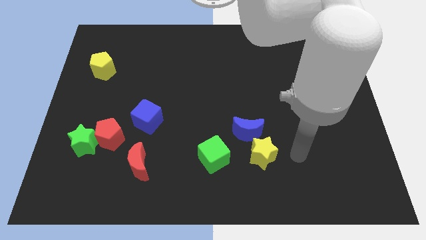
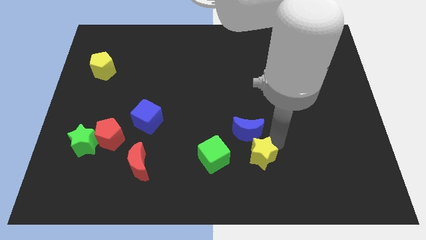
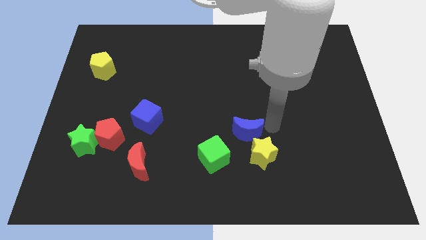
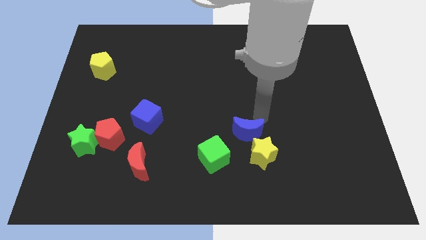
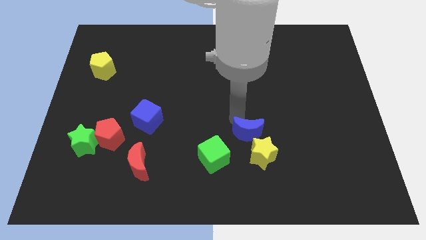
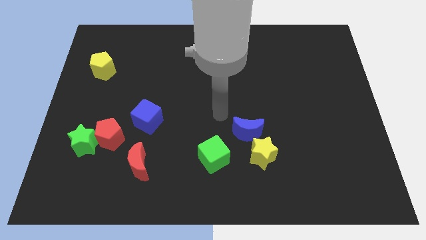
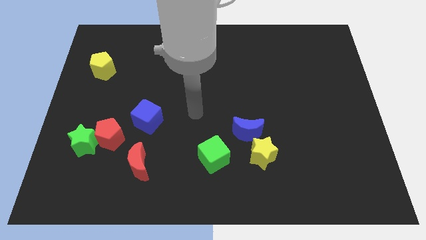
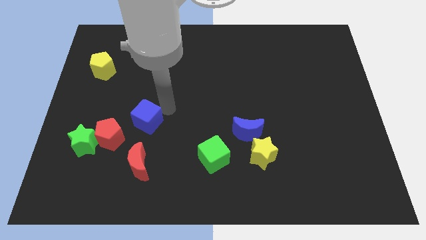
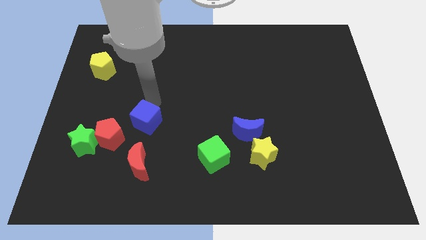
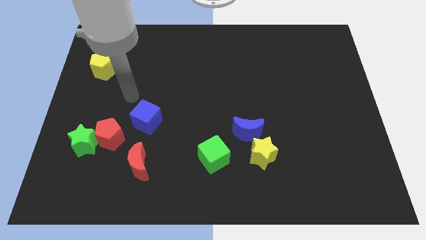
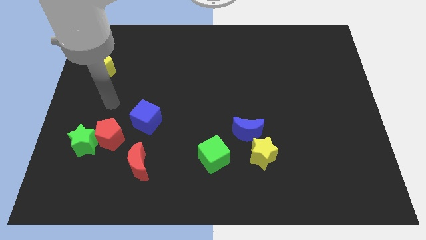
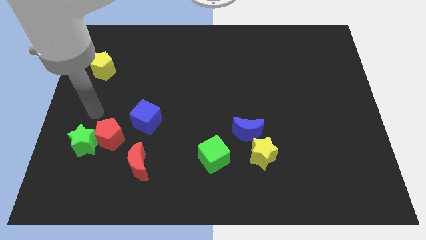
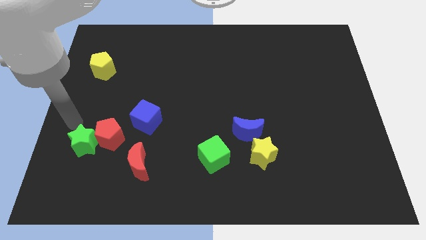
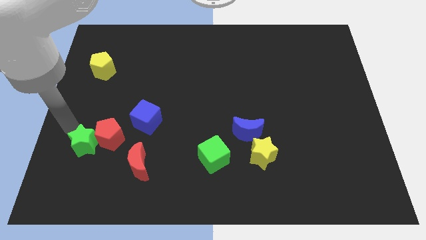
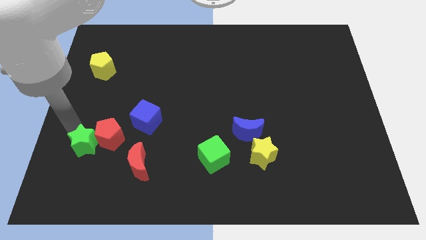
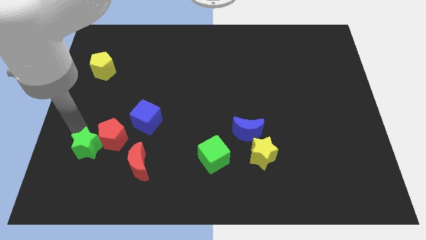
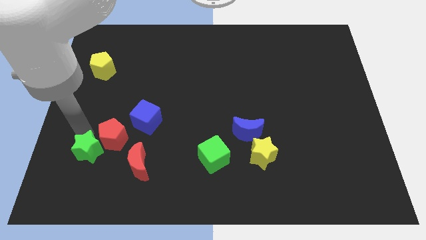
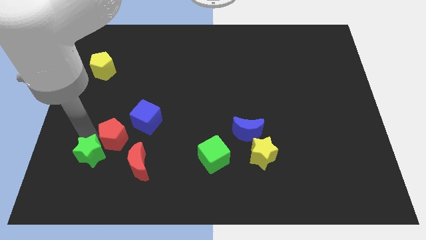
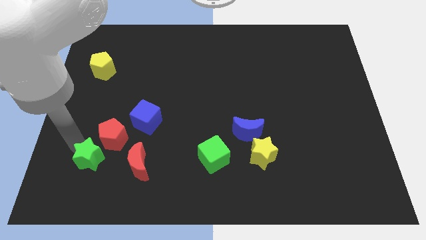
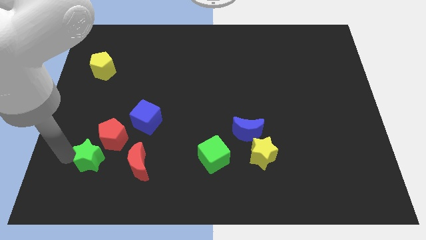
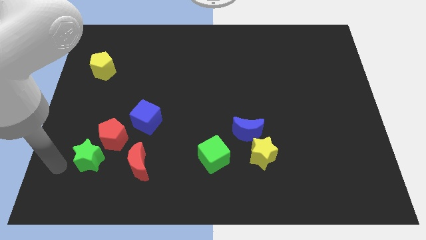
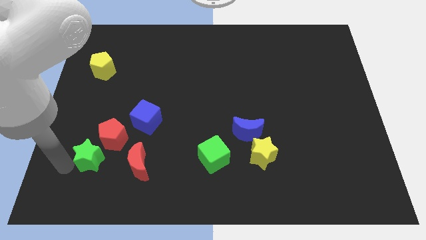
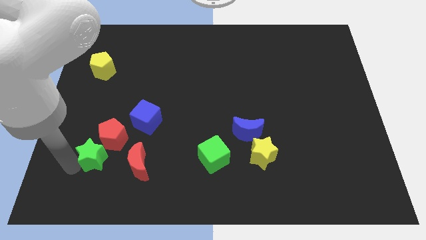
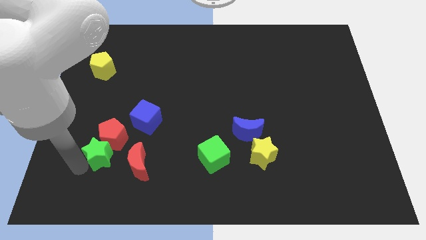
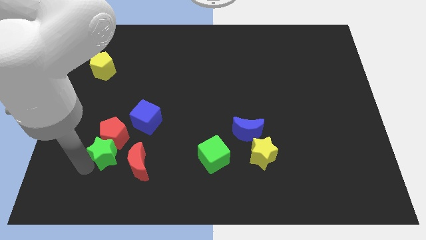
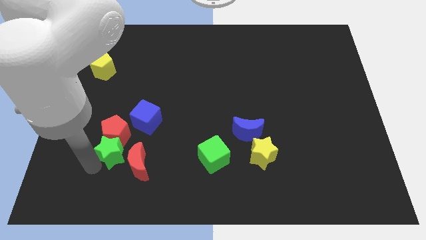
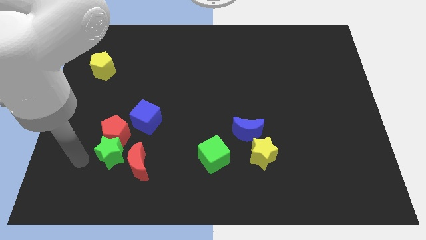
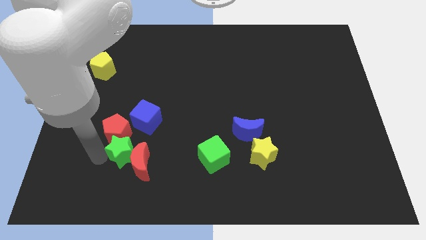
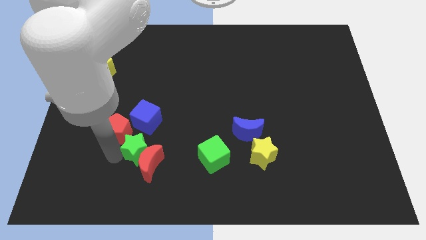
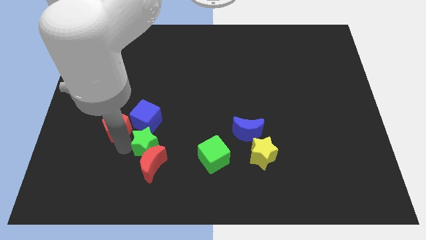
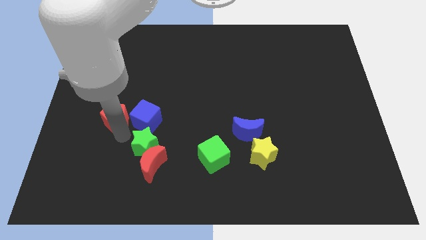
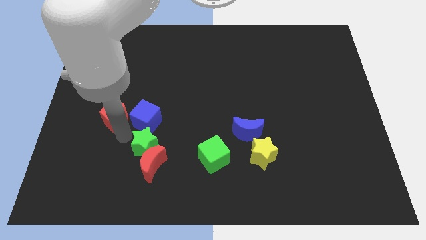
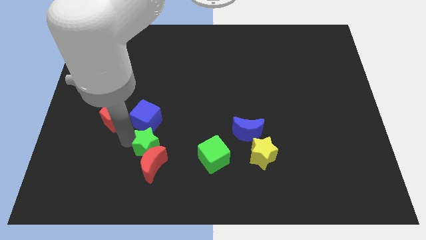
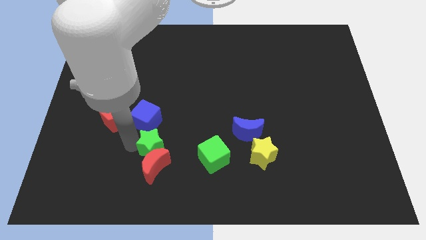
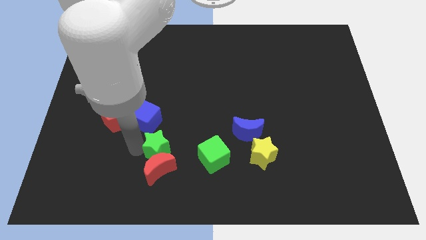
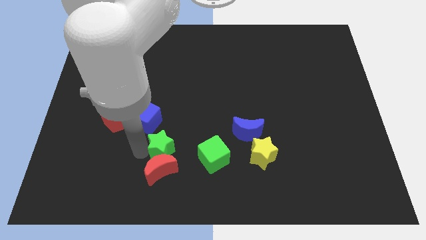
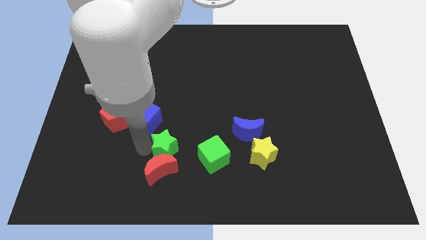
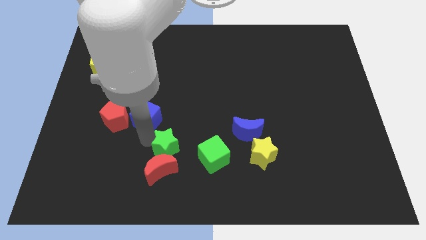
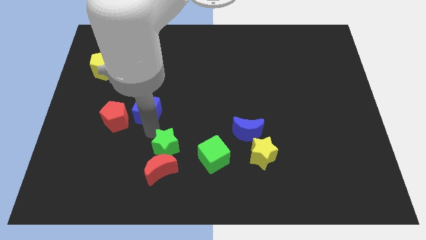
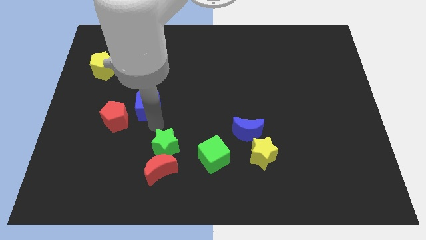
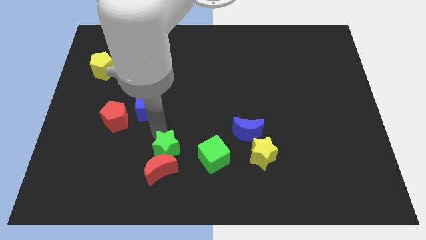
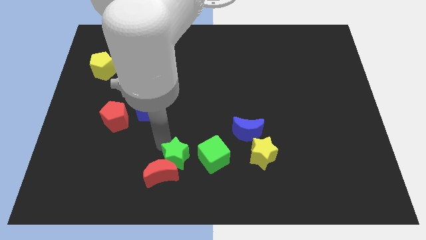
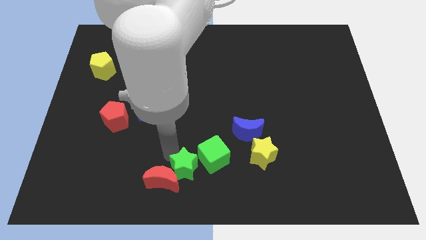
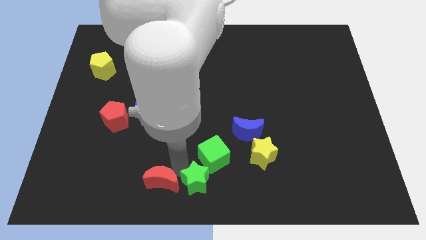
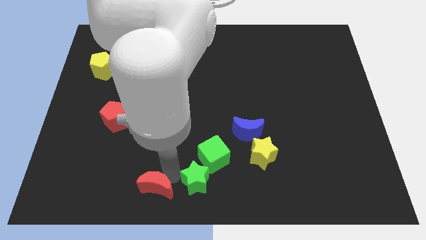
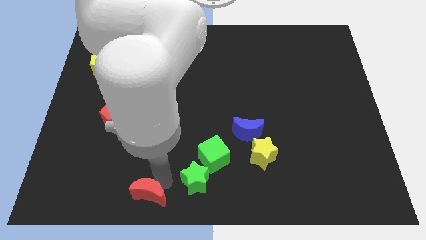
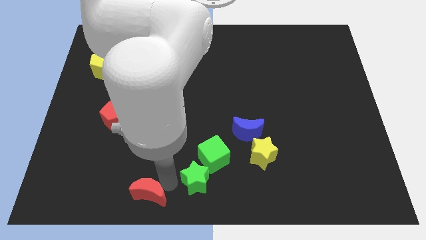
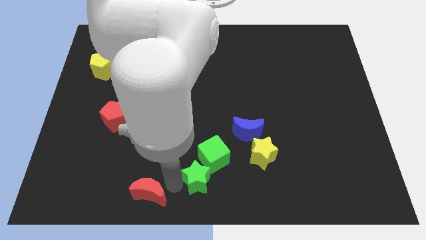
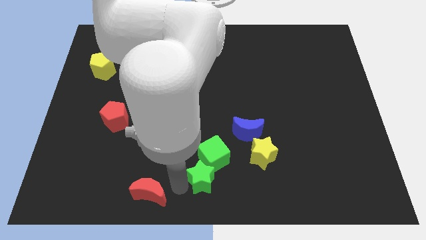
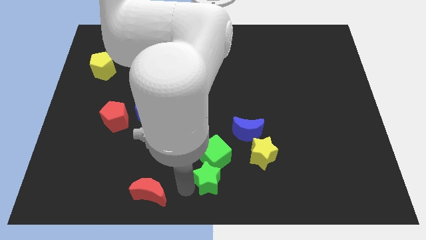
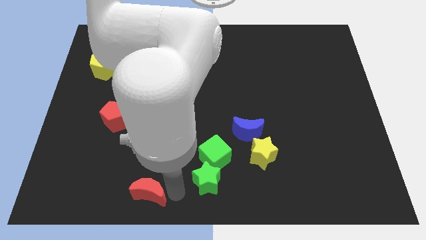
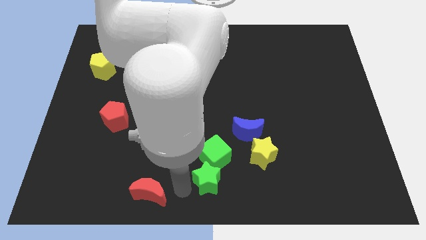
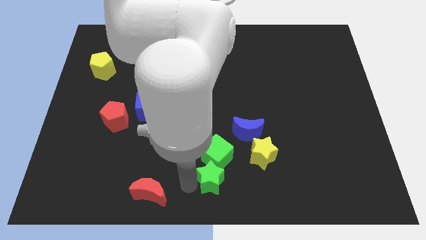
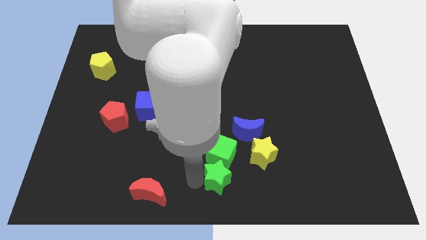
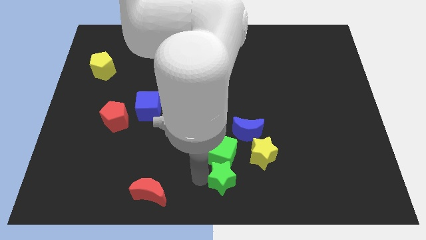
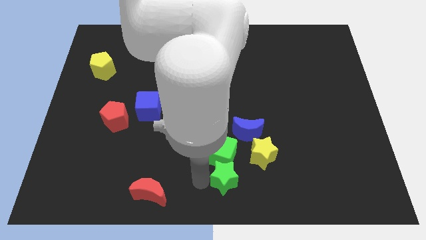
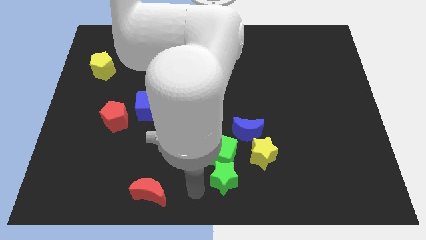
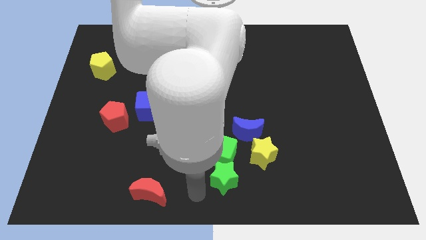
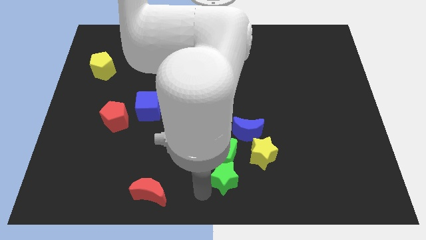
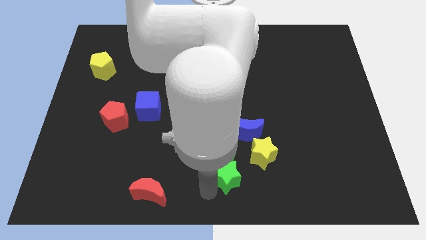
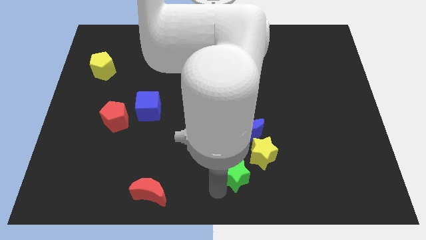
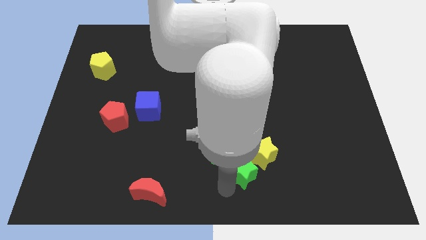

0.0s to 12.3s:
move the green star next to the yellow star

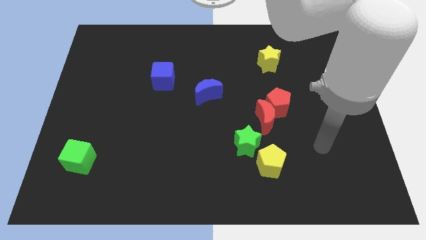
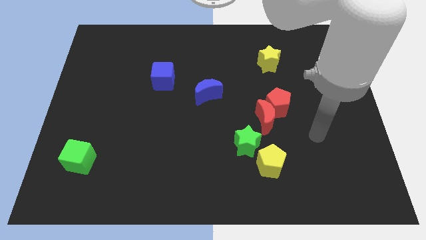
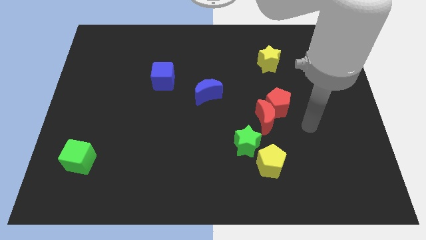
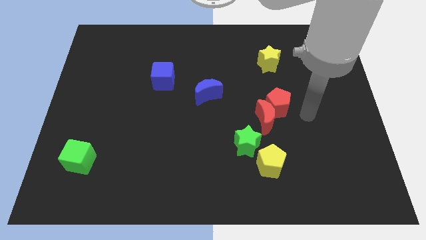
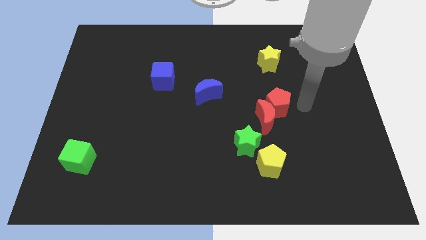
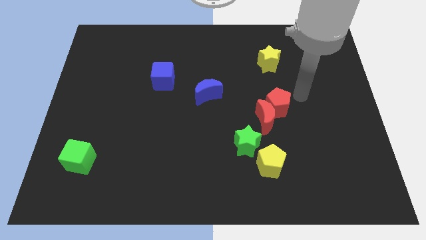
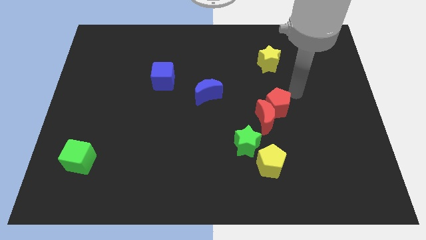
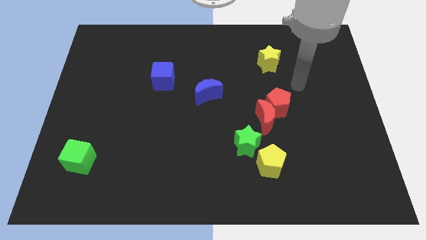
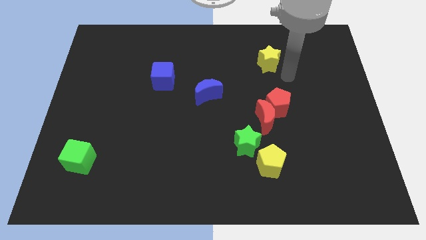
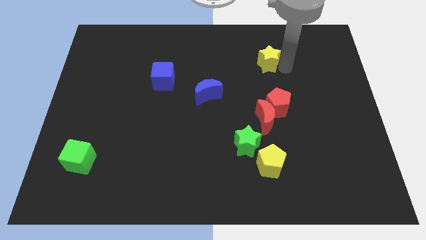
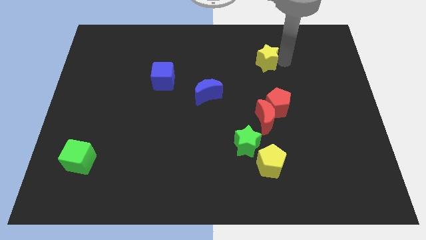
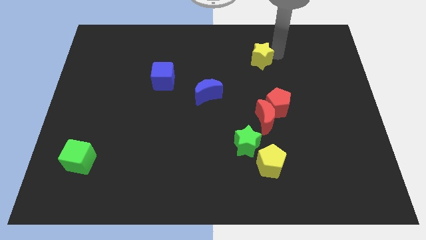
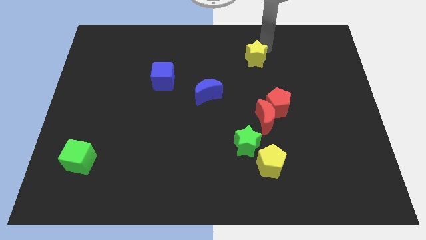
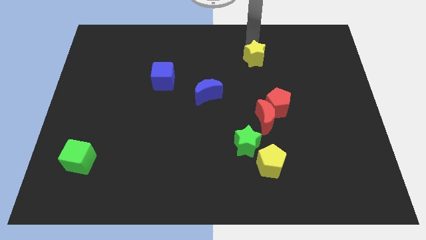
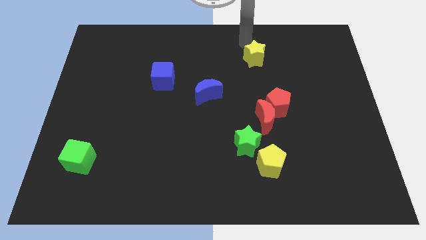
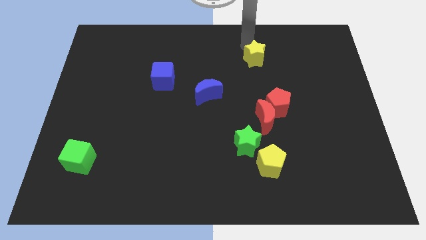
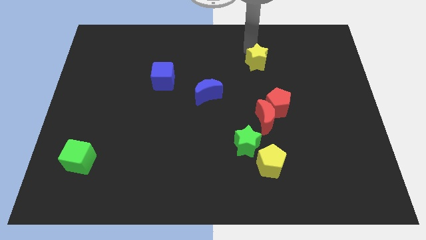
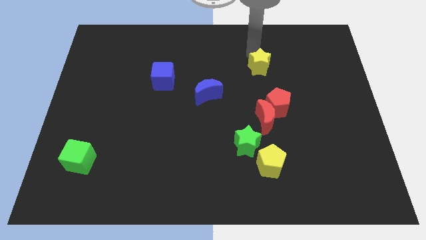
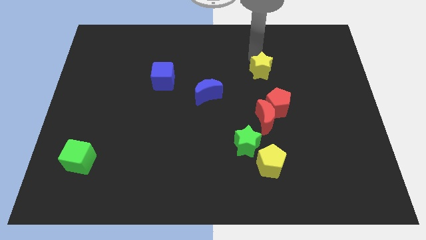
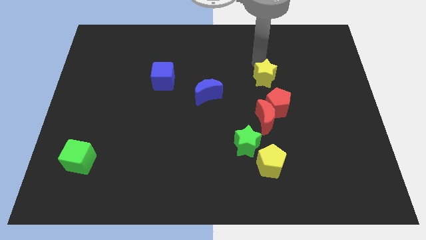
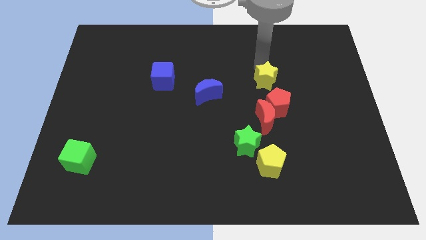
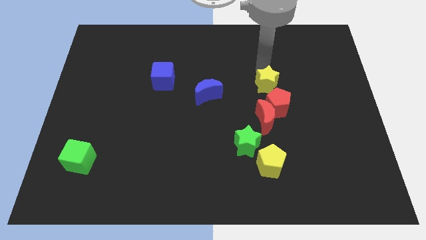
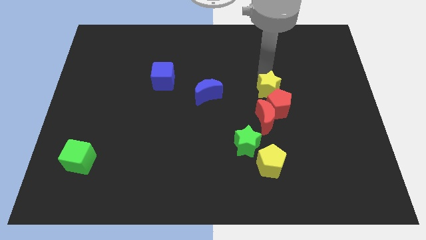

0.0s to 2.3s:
slide the yellow star close to the red pentagon
